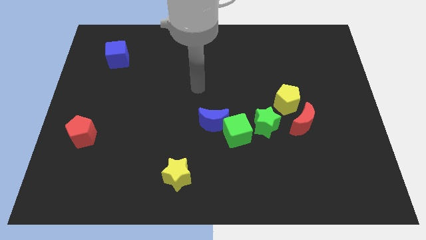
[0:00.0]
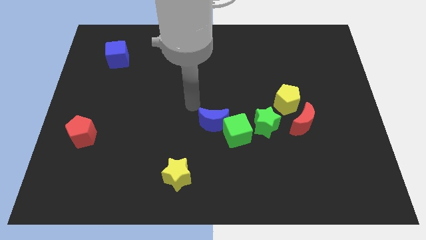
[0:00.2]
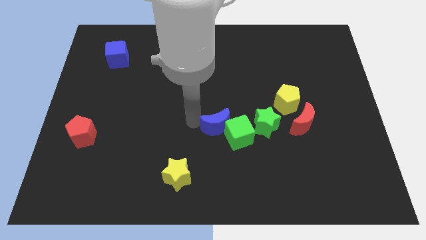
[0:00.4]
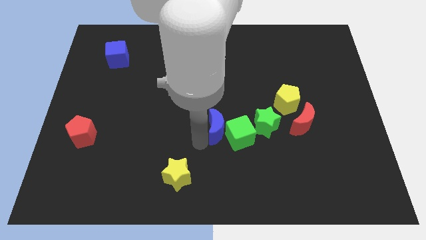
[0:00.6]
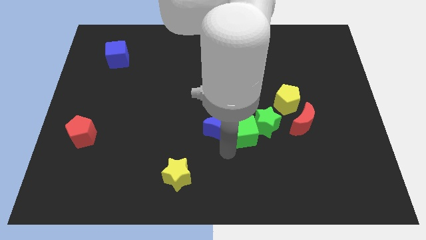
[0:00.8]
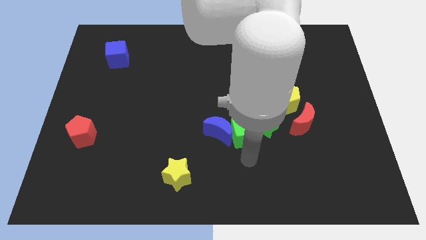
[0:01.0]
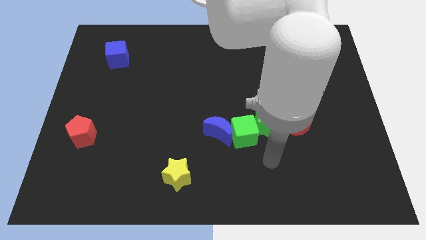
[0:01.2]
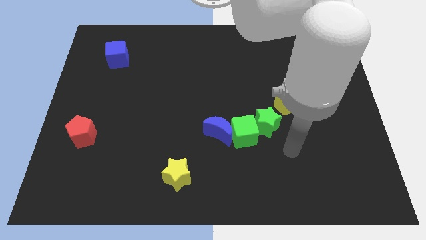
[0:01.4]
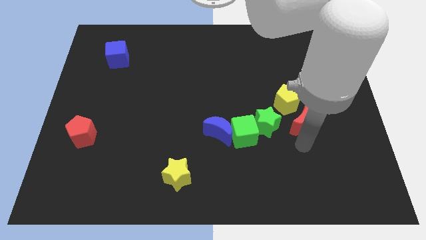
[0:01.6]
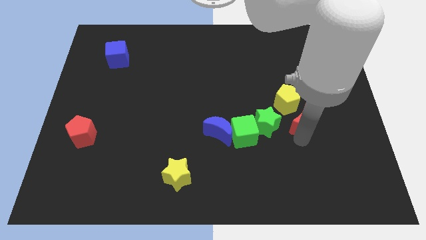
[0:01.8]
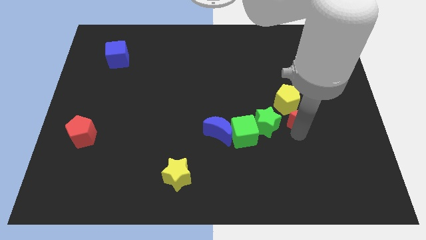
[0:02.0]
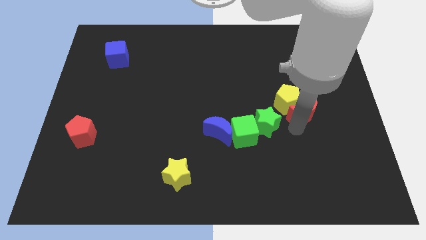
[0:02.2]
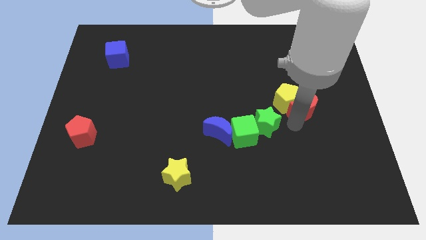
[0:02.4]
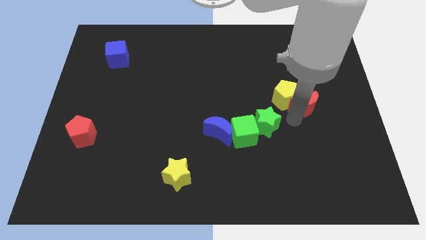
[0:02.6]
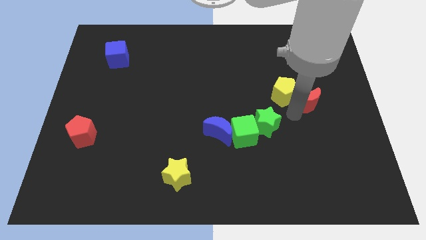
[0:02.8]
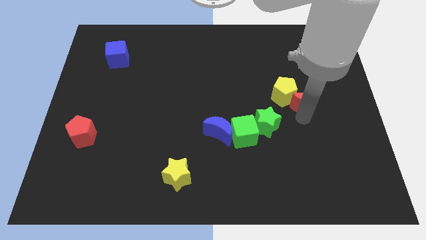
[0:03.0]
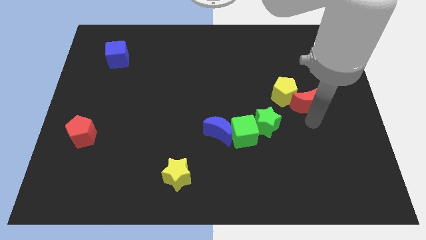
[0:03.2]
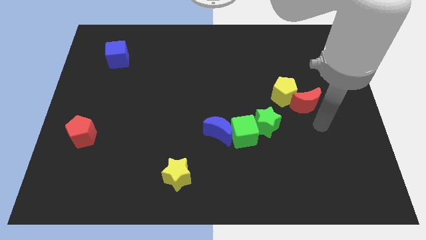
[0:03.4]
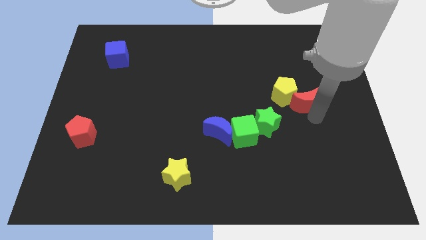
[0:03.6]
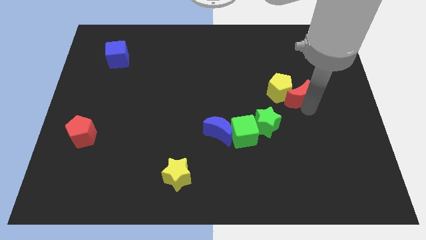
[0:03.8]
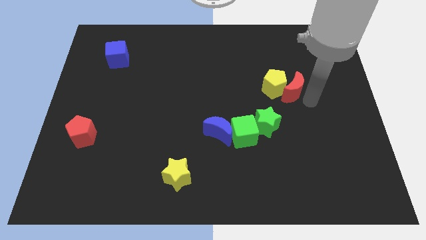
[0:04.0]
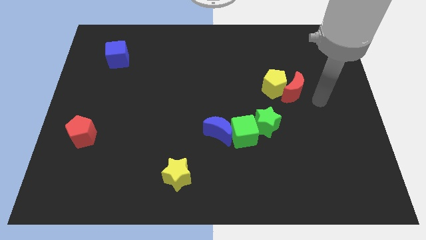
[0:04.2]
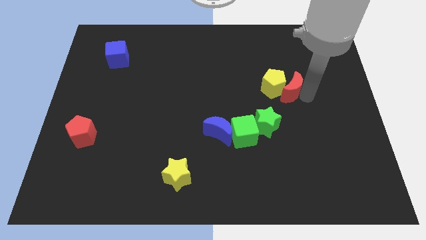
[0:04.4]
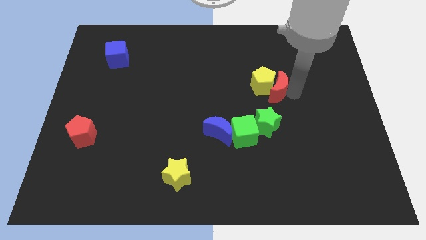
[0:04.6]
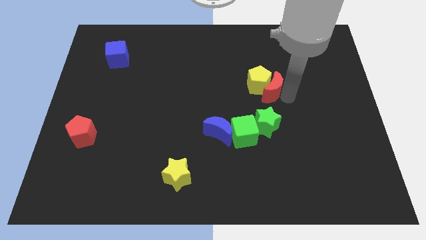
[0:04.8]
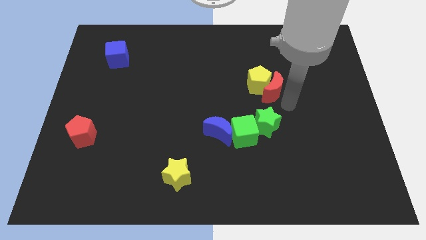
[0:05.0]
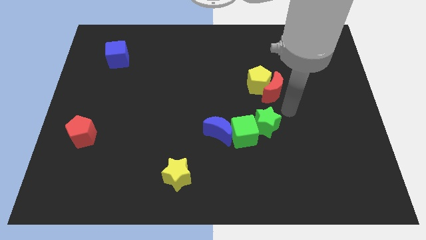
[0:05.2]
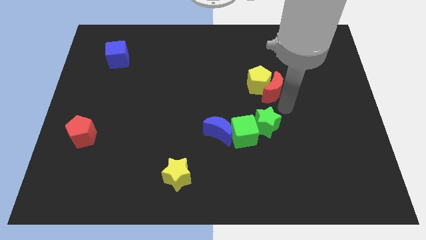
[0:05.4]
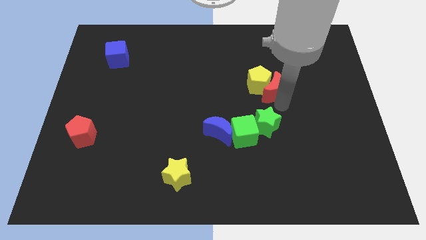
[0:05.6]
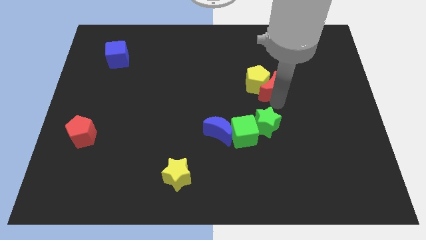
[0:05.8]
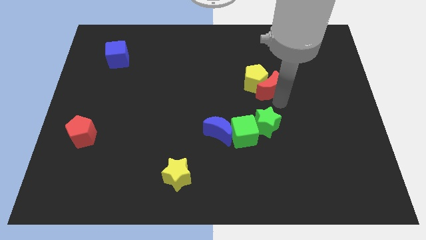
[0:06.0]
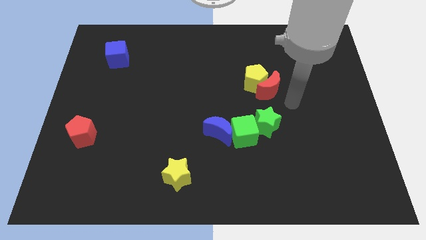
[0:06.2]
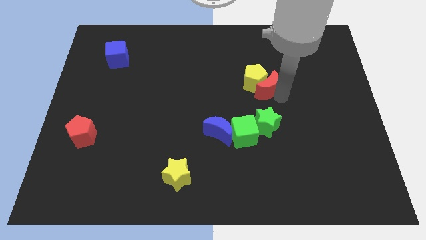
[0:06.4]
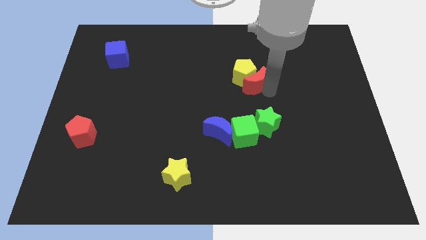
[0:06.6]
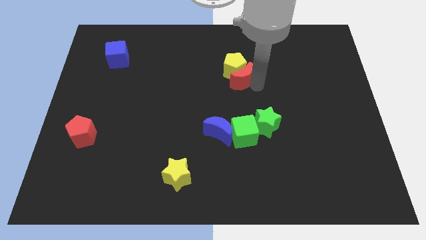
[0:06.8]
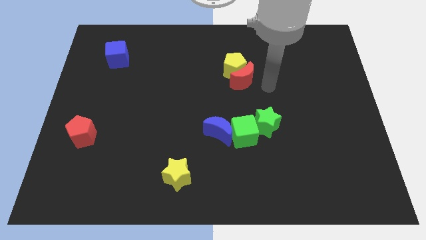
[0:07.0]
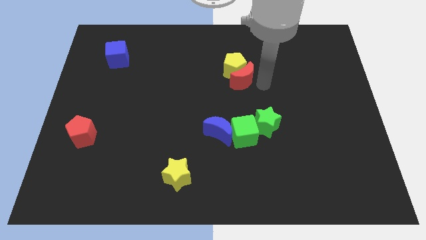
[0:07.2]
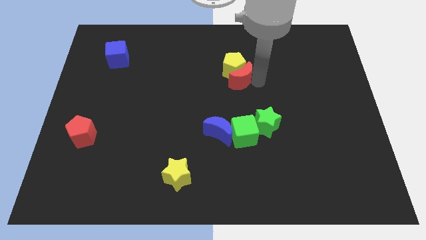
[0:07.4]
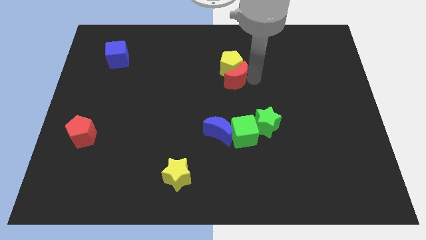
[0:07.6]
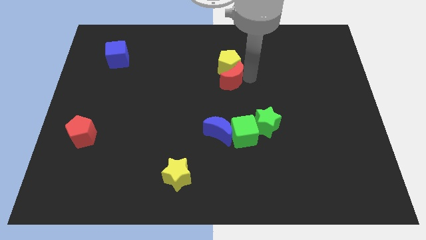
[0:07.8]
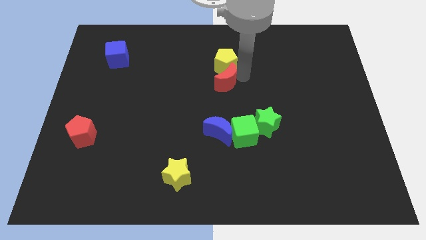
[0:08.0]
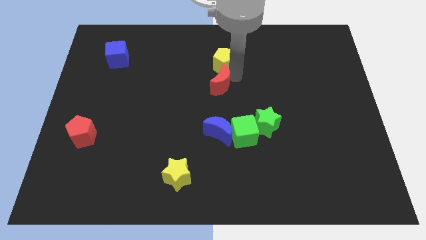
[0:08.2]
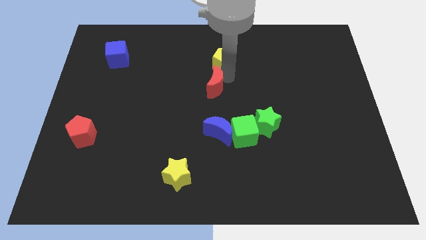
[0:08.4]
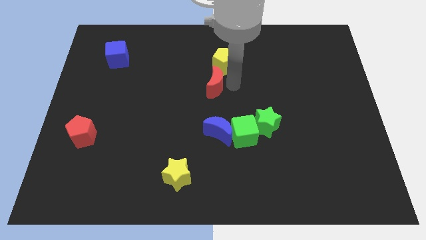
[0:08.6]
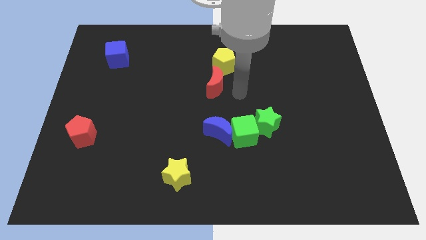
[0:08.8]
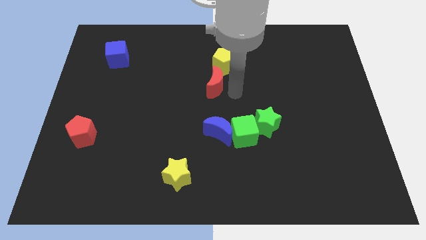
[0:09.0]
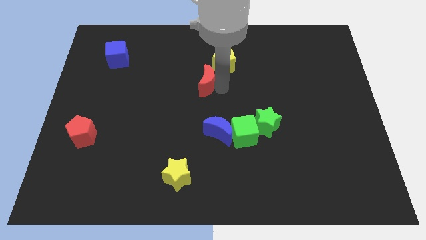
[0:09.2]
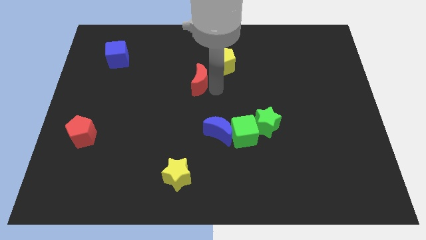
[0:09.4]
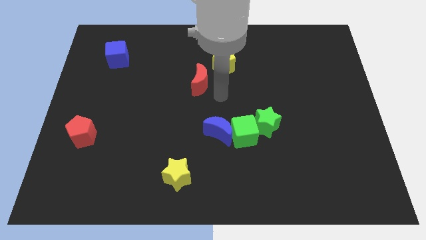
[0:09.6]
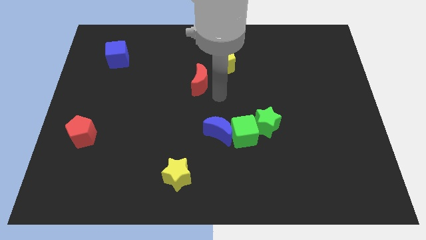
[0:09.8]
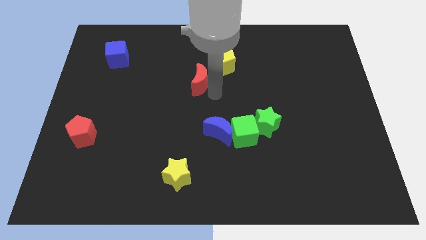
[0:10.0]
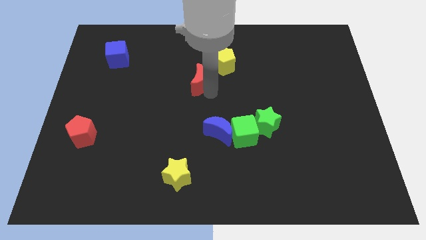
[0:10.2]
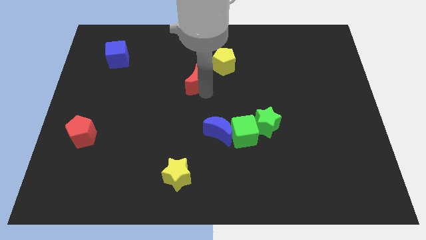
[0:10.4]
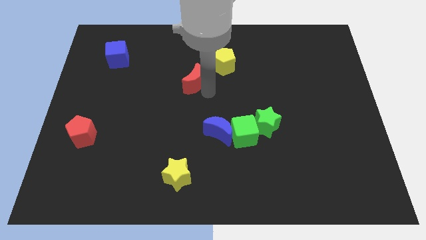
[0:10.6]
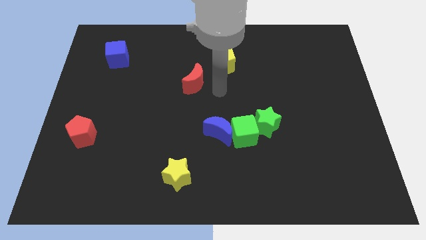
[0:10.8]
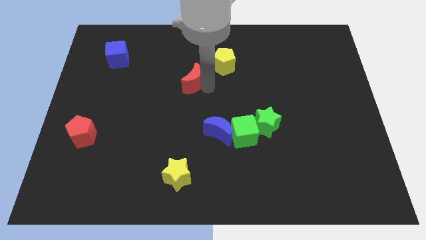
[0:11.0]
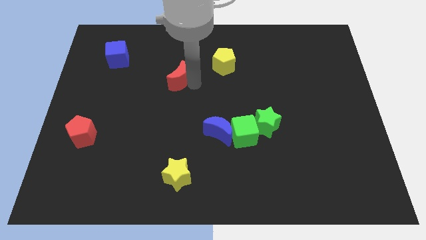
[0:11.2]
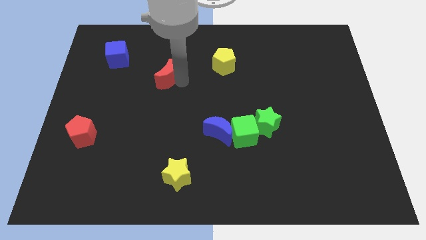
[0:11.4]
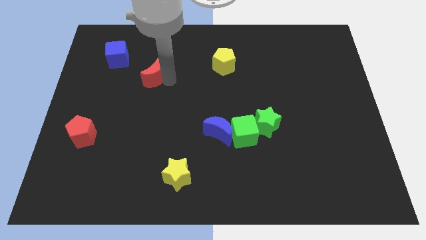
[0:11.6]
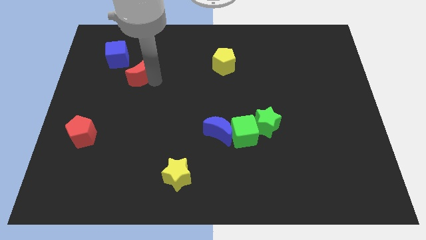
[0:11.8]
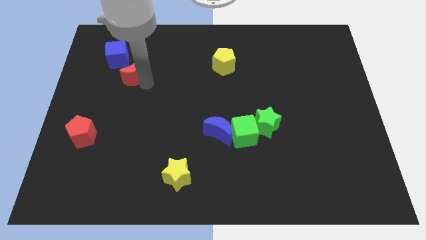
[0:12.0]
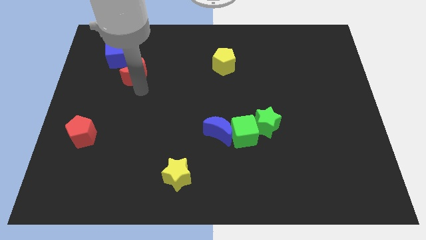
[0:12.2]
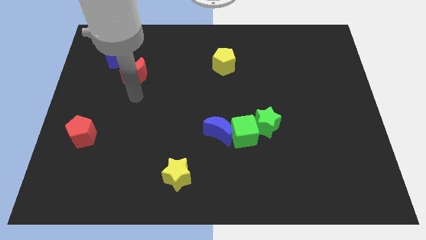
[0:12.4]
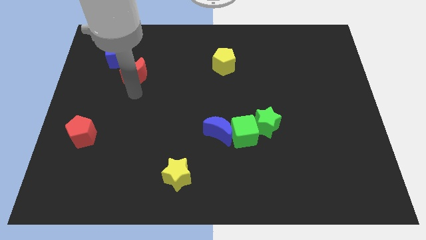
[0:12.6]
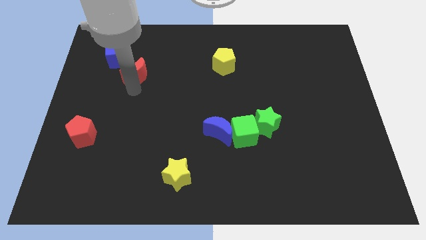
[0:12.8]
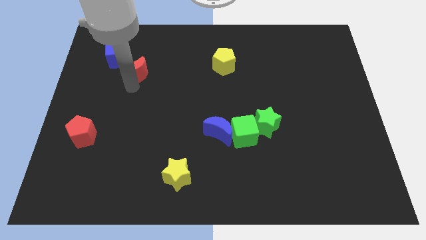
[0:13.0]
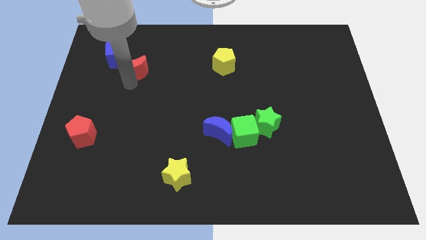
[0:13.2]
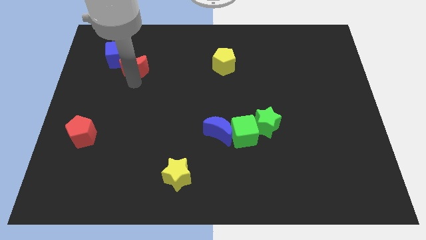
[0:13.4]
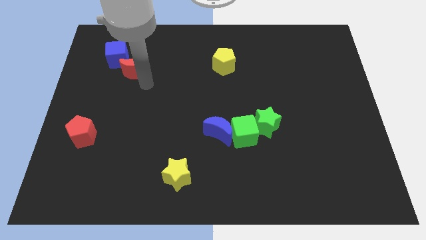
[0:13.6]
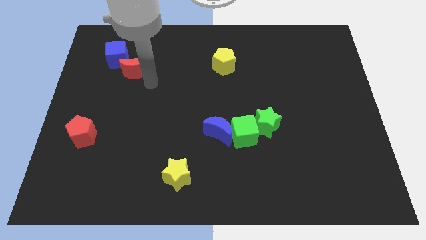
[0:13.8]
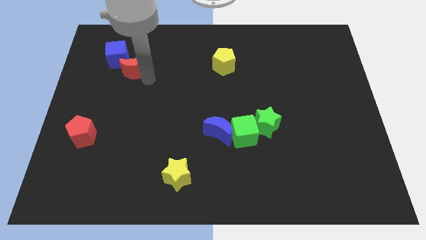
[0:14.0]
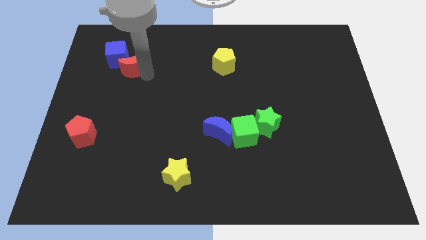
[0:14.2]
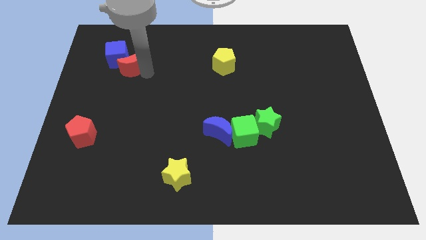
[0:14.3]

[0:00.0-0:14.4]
slide the red moon close to the blue cube
